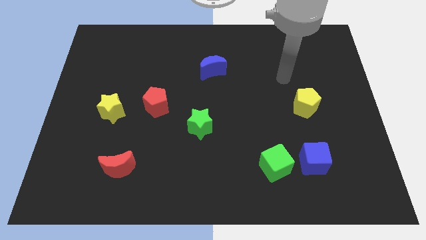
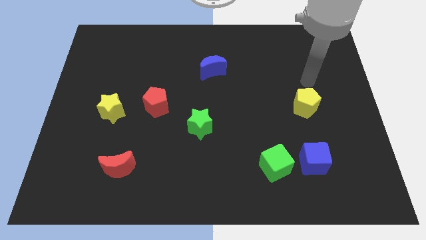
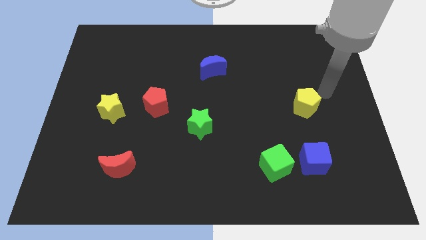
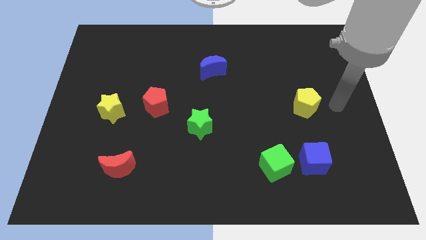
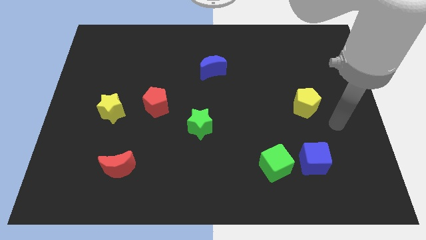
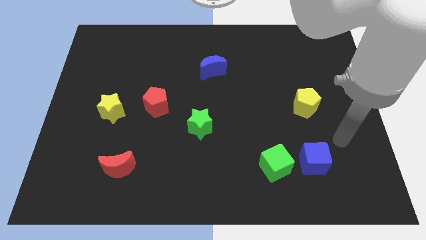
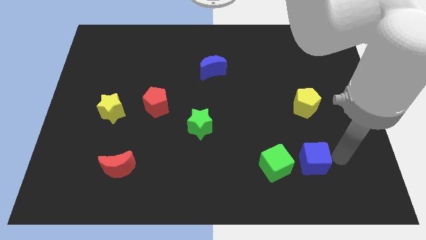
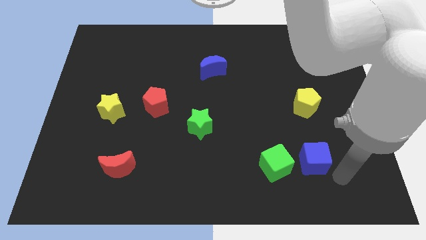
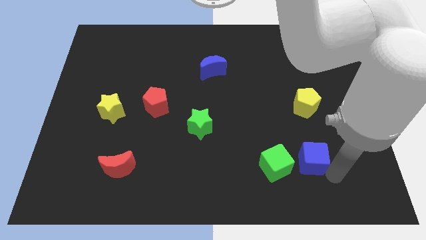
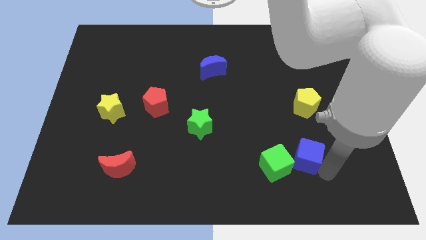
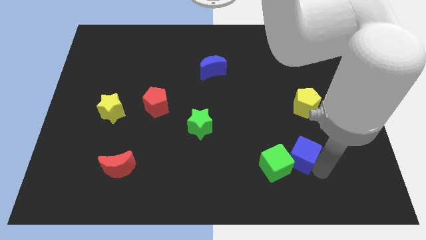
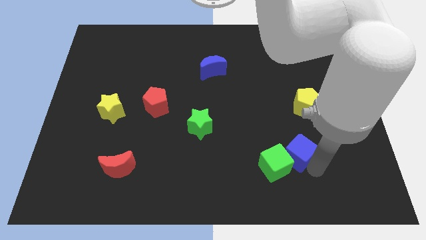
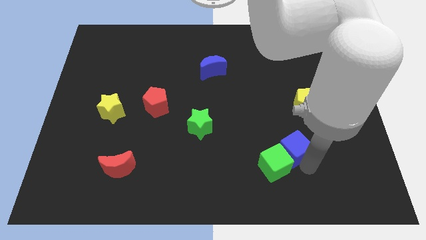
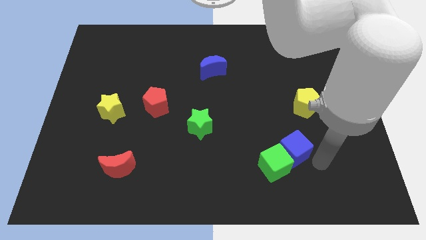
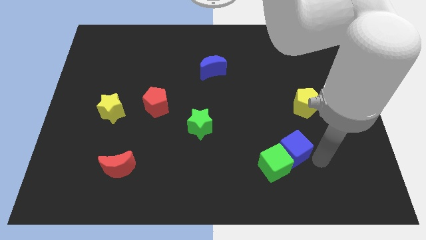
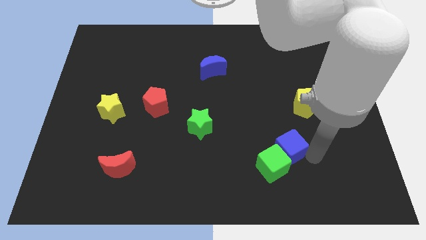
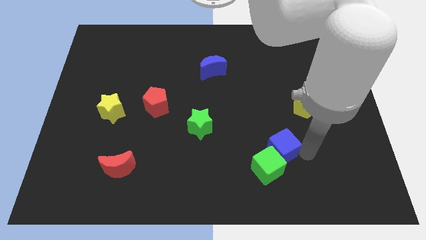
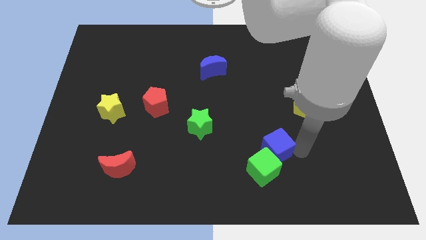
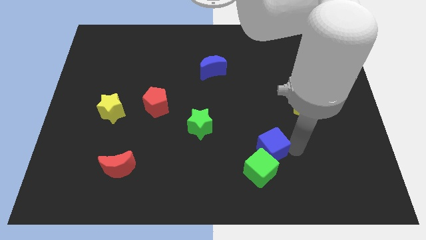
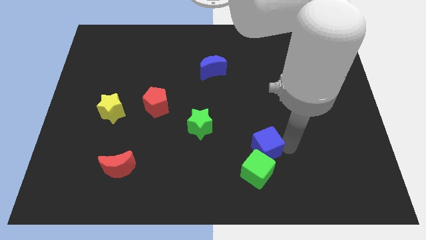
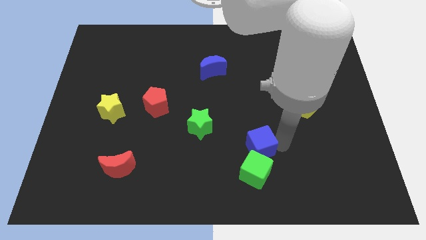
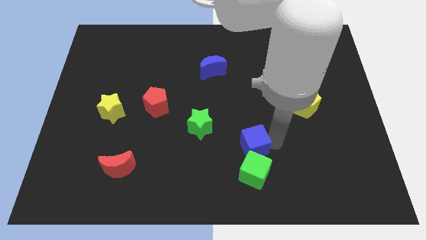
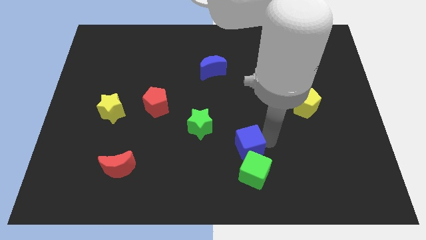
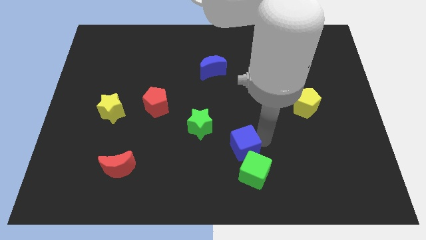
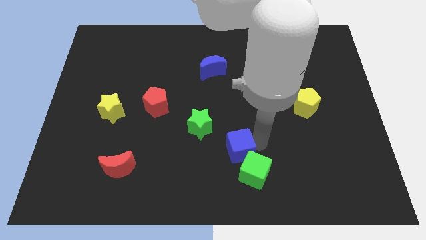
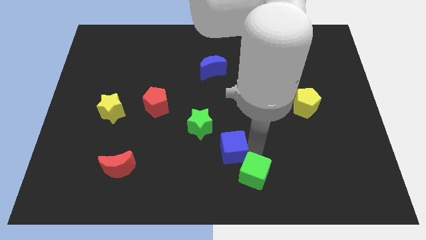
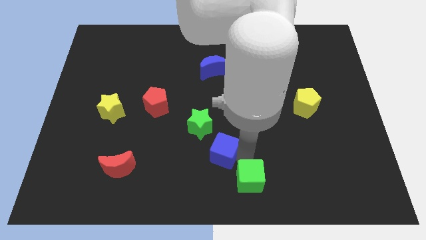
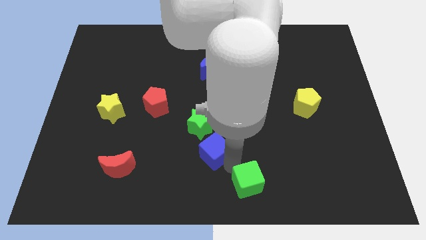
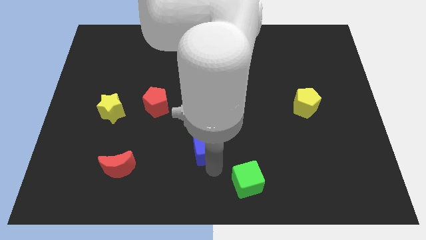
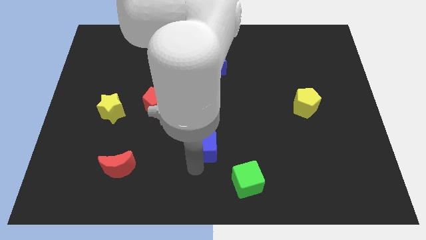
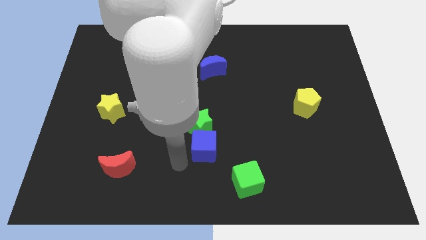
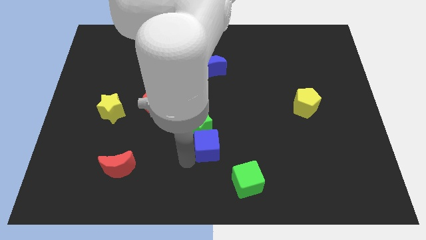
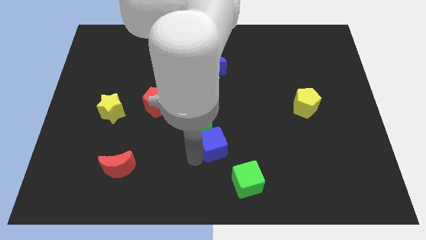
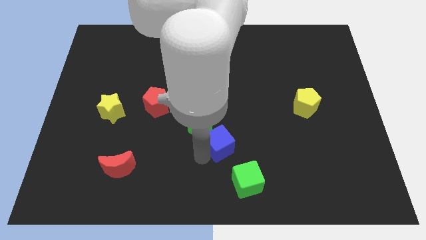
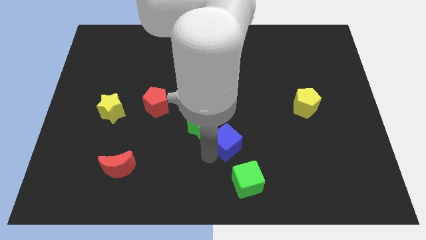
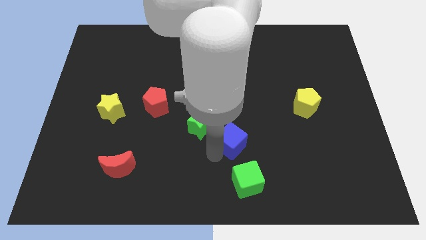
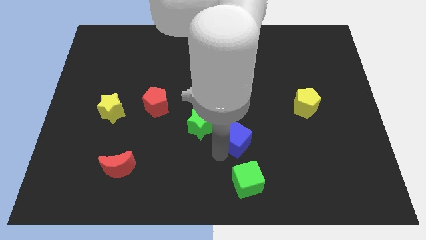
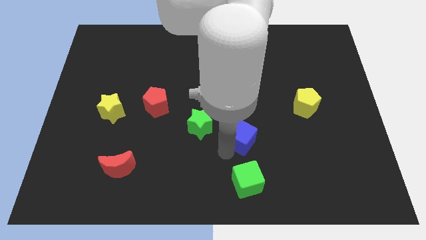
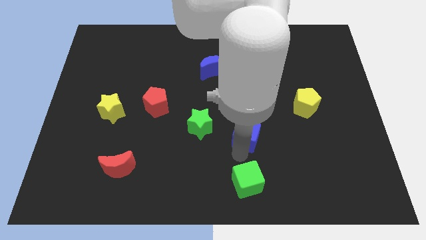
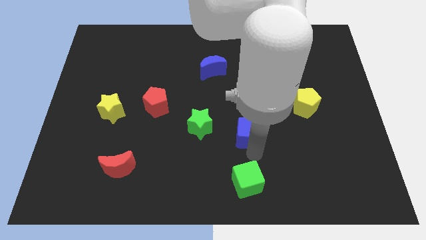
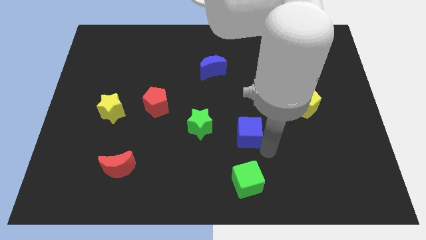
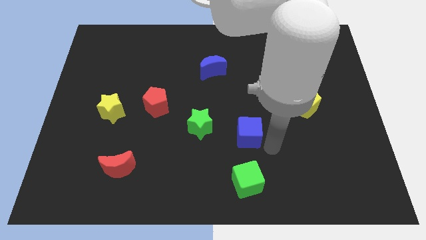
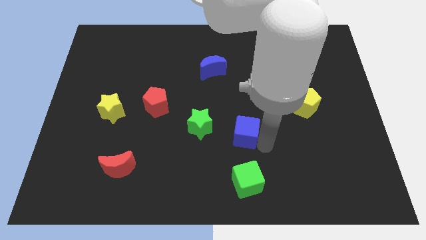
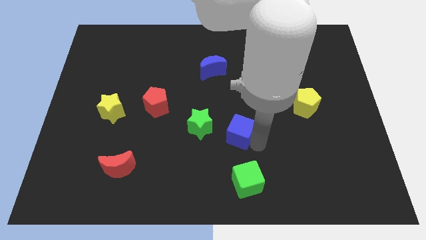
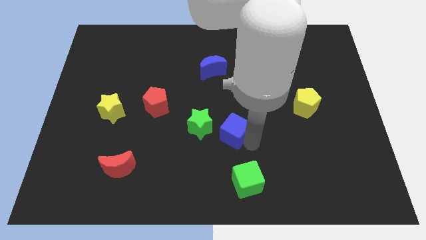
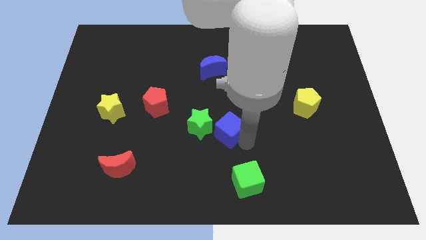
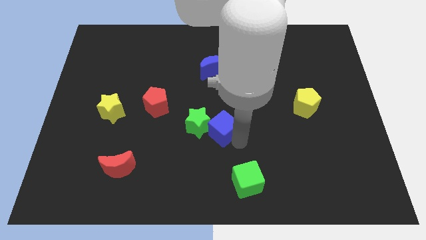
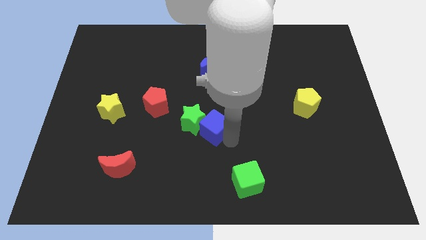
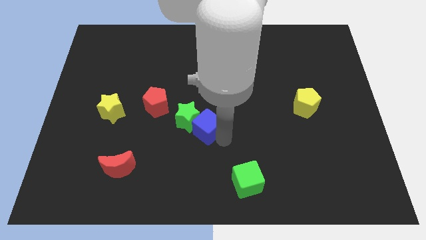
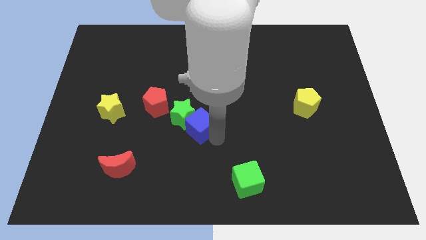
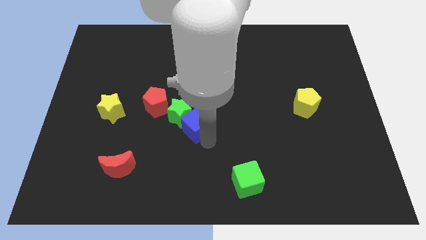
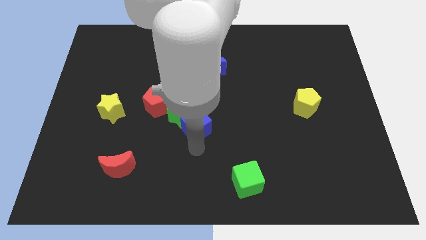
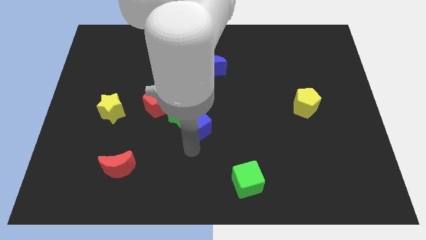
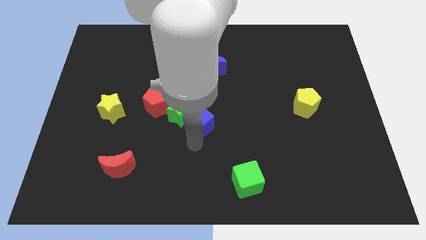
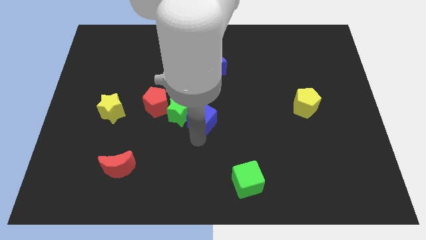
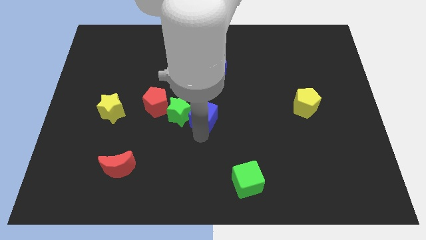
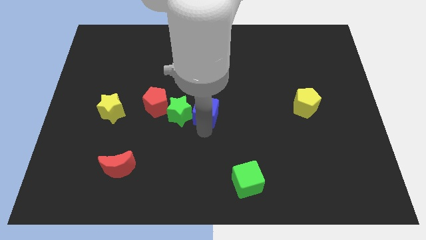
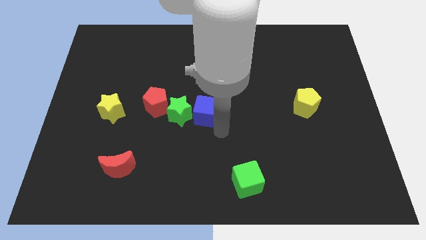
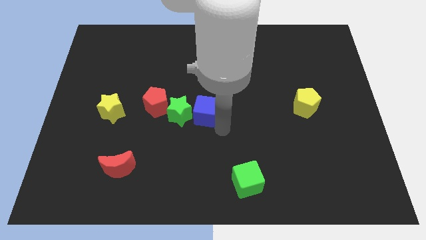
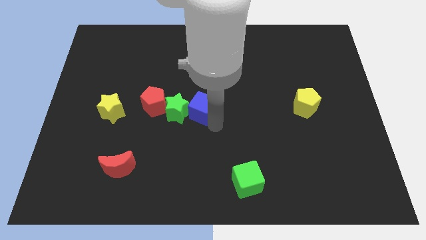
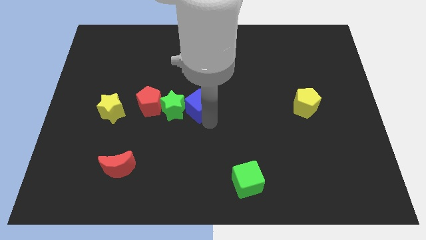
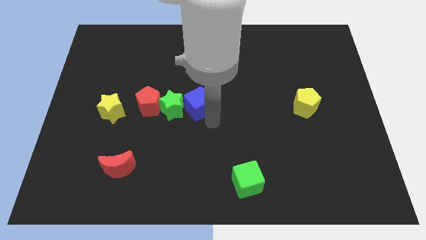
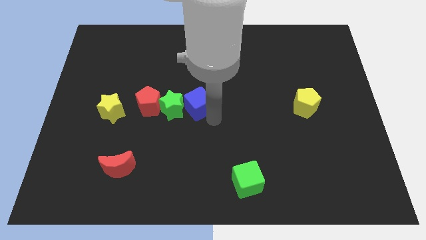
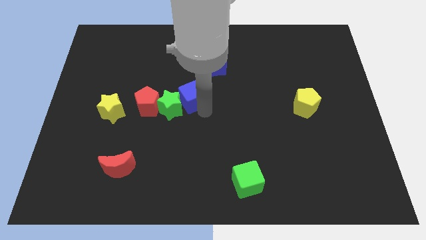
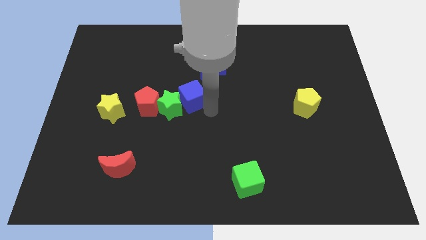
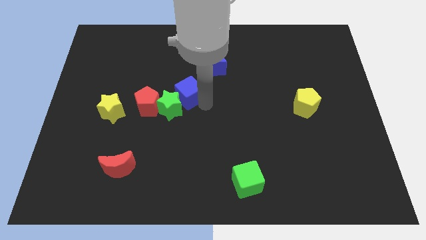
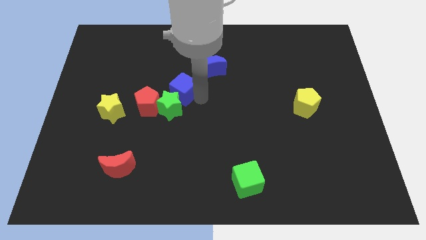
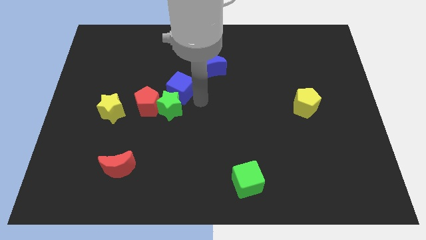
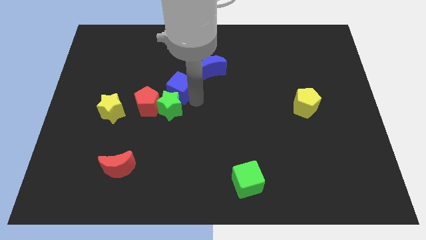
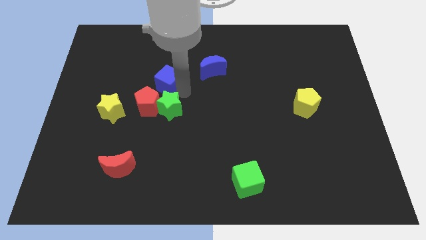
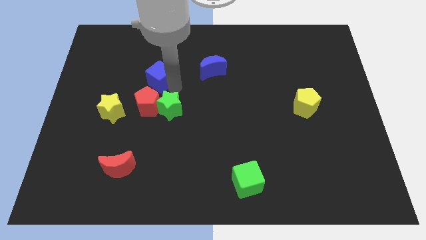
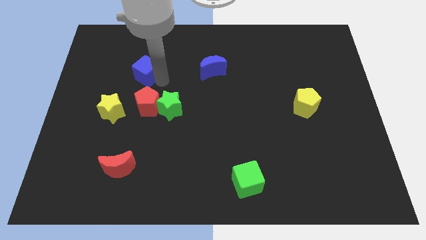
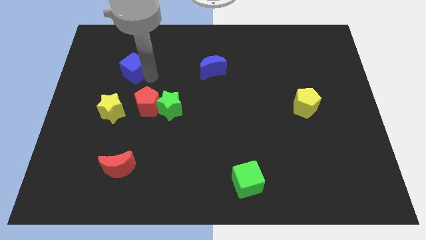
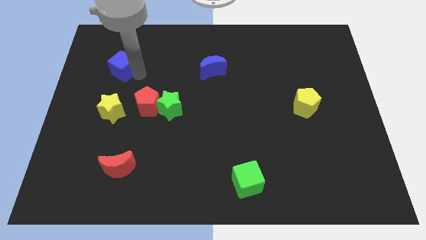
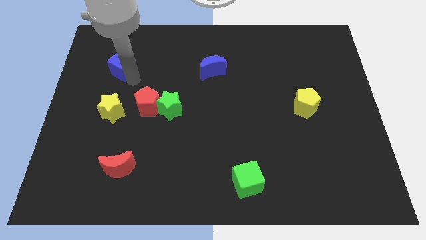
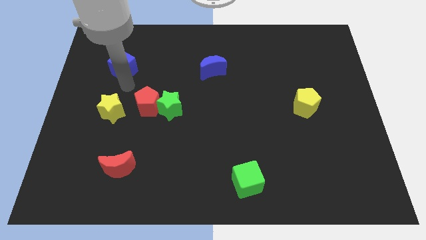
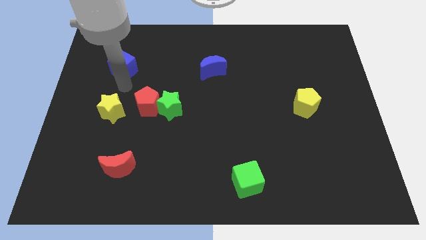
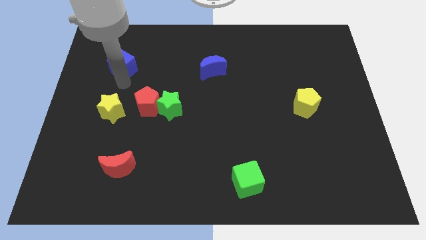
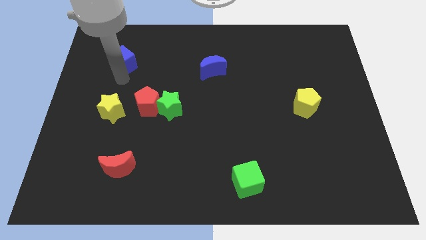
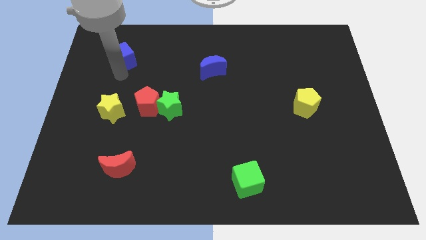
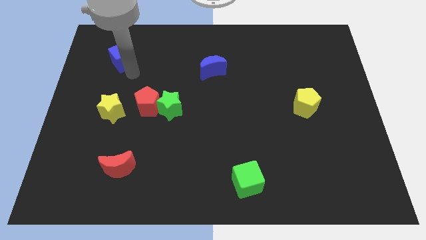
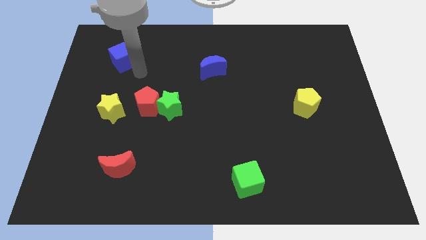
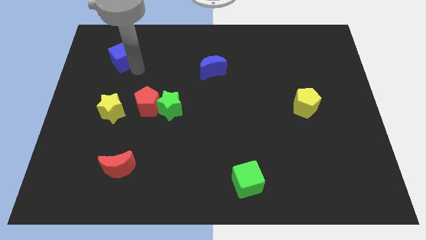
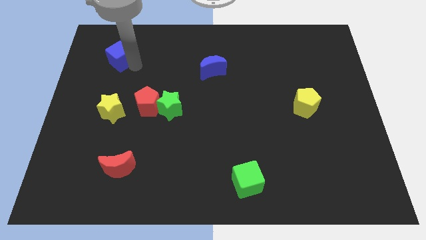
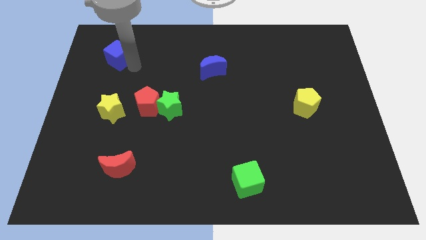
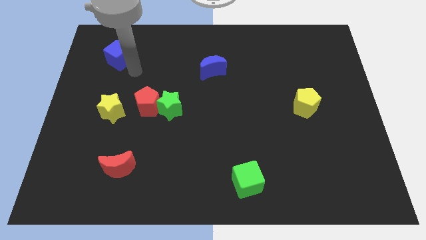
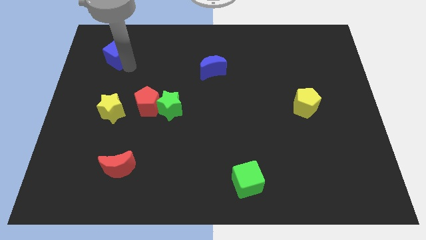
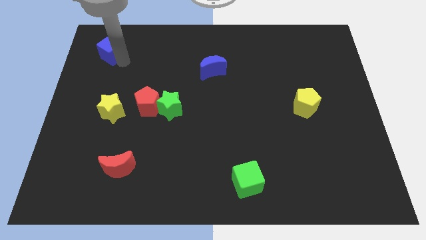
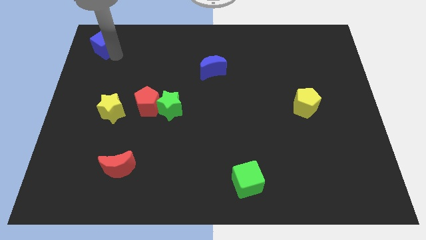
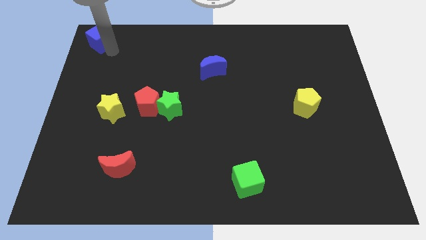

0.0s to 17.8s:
move the blue cube to the upper left corner
